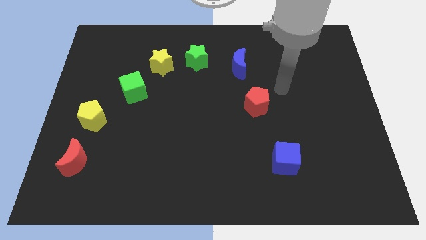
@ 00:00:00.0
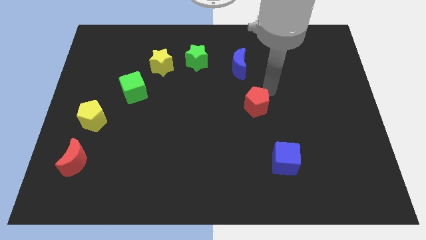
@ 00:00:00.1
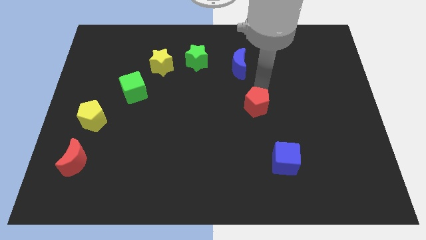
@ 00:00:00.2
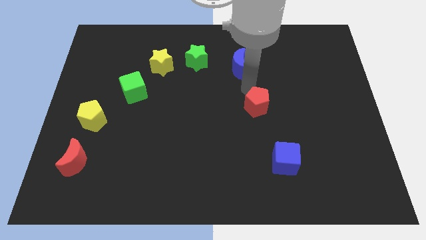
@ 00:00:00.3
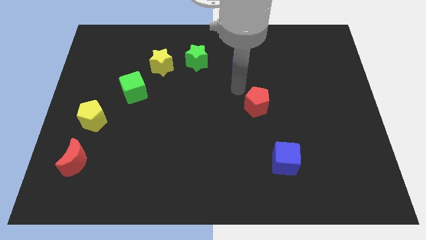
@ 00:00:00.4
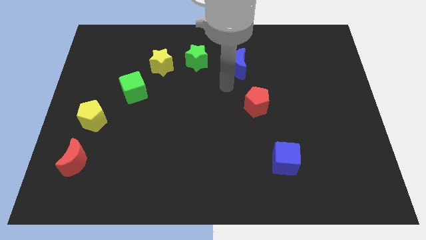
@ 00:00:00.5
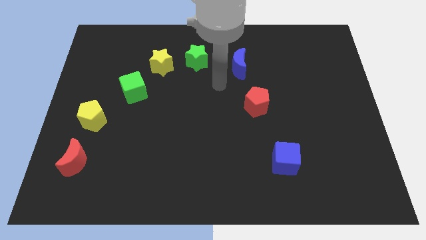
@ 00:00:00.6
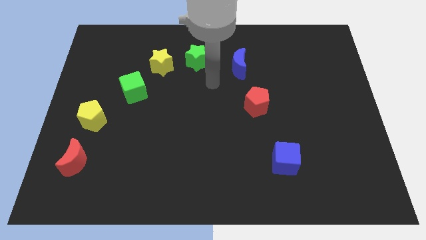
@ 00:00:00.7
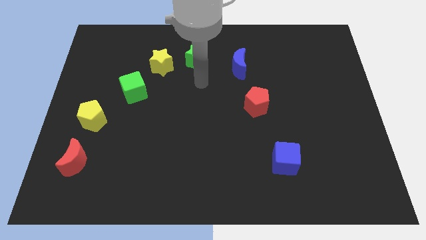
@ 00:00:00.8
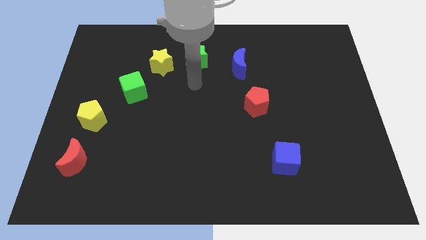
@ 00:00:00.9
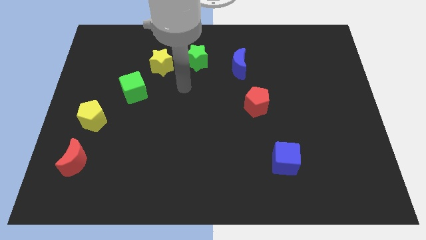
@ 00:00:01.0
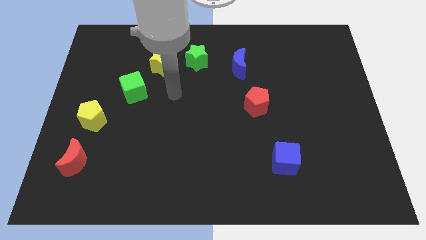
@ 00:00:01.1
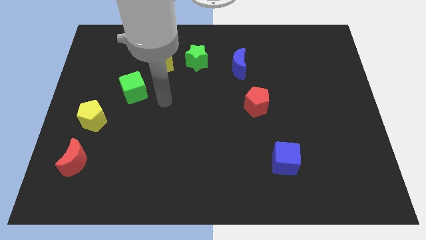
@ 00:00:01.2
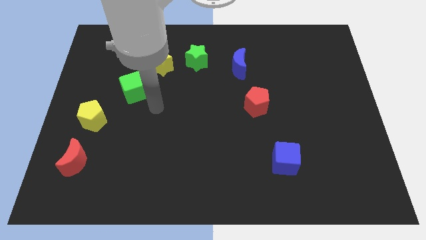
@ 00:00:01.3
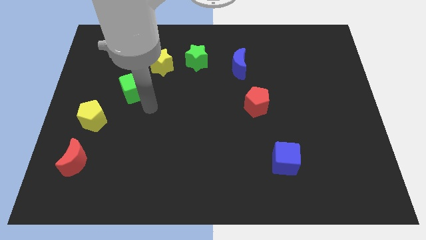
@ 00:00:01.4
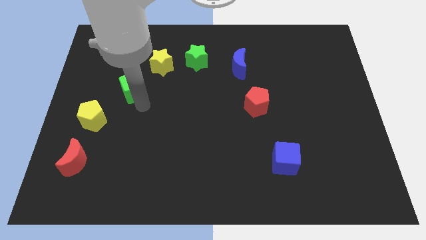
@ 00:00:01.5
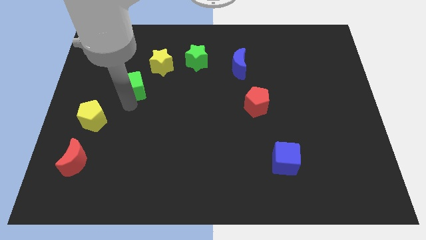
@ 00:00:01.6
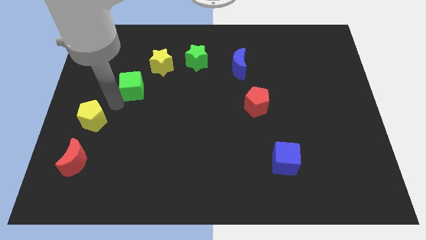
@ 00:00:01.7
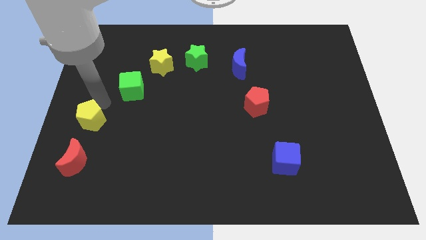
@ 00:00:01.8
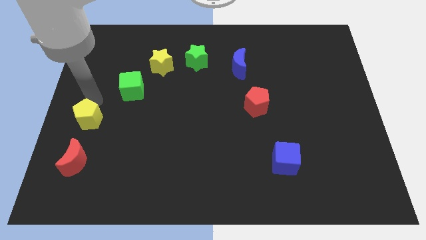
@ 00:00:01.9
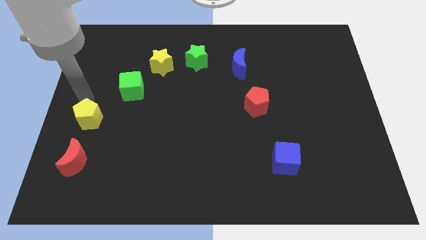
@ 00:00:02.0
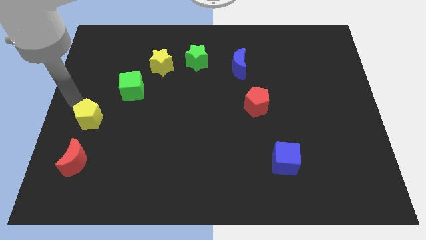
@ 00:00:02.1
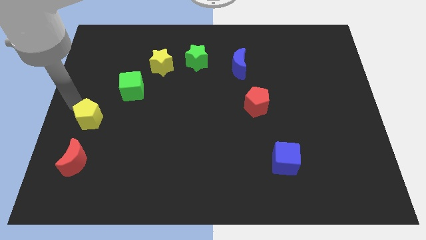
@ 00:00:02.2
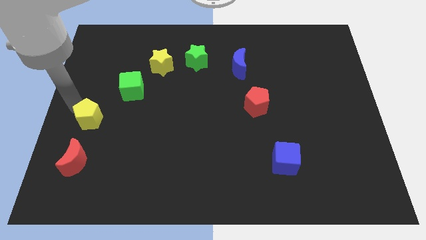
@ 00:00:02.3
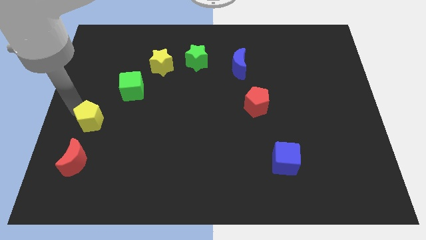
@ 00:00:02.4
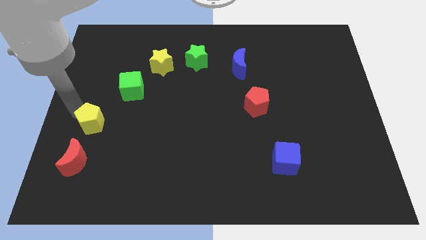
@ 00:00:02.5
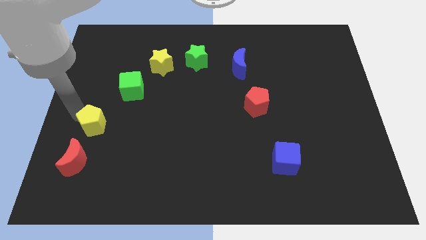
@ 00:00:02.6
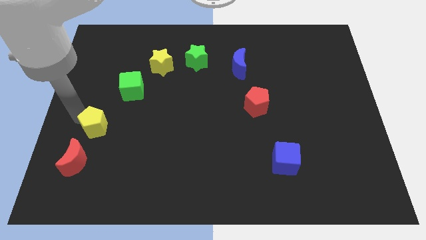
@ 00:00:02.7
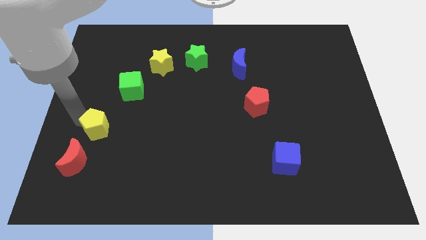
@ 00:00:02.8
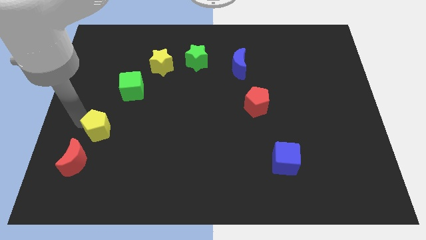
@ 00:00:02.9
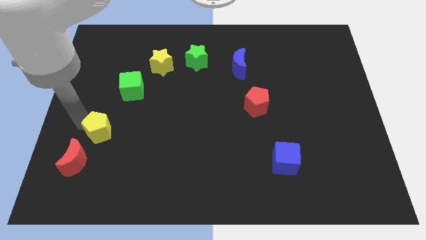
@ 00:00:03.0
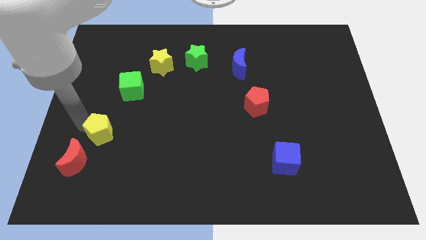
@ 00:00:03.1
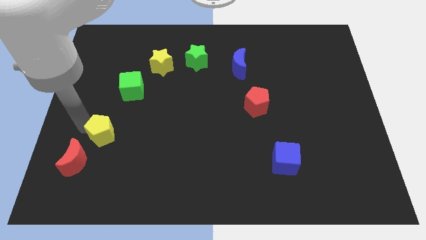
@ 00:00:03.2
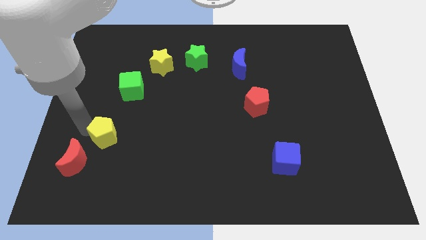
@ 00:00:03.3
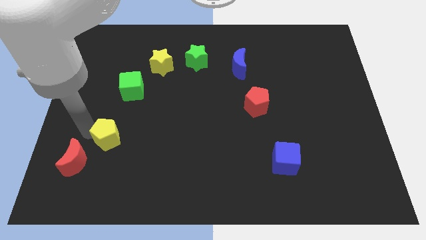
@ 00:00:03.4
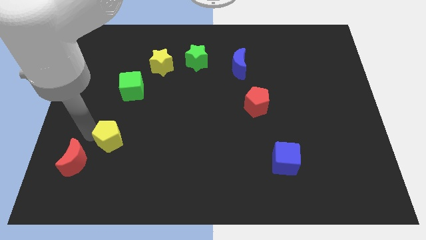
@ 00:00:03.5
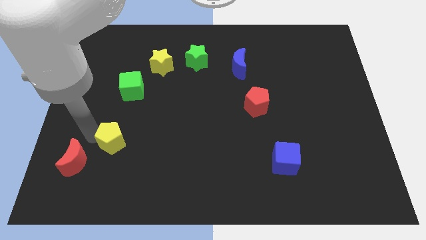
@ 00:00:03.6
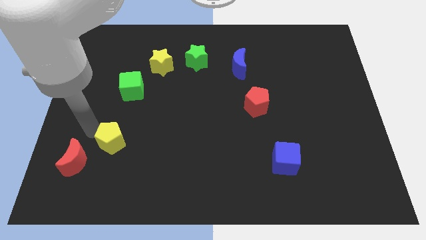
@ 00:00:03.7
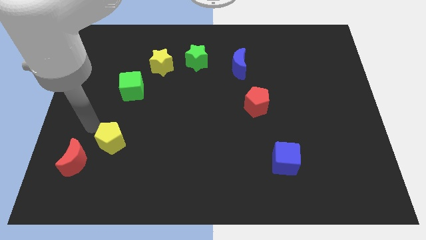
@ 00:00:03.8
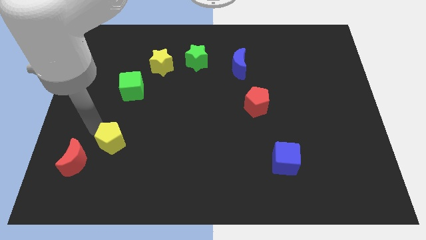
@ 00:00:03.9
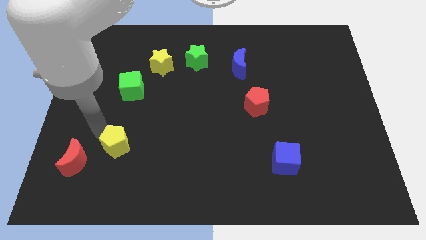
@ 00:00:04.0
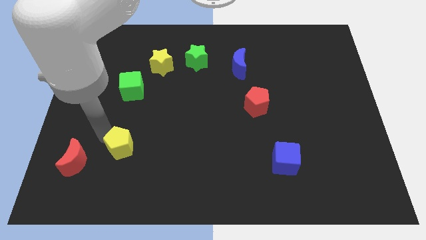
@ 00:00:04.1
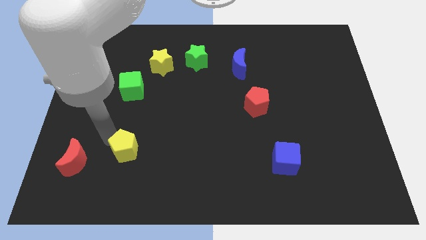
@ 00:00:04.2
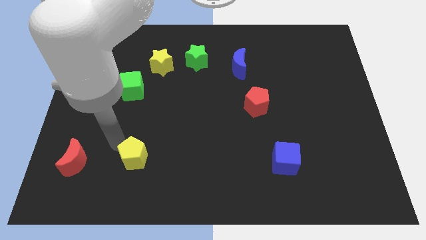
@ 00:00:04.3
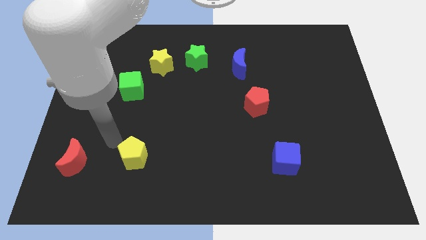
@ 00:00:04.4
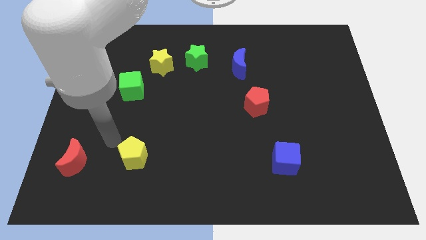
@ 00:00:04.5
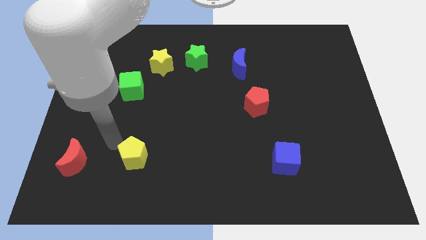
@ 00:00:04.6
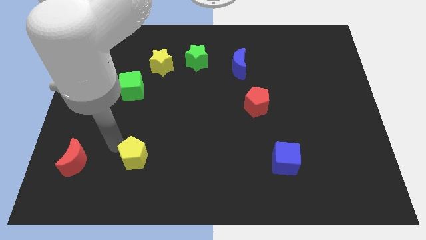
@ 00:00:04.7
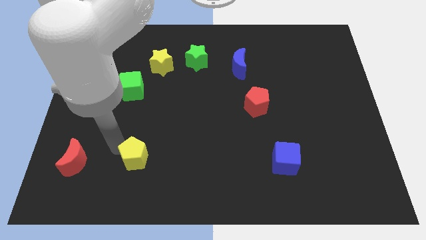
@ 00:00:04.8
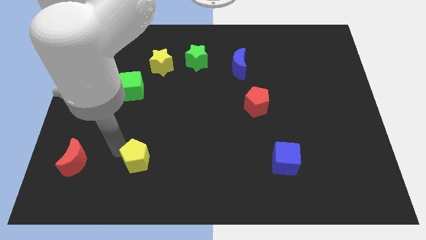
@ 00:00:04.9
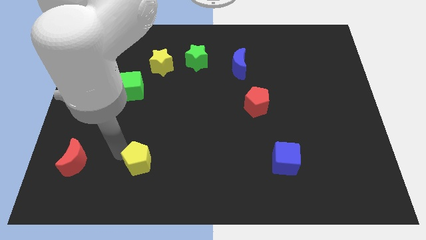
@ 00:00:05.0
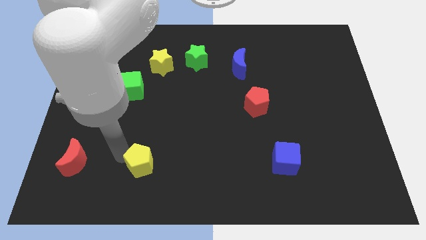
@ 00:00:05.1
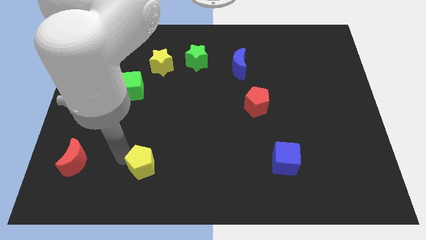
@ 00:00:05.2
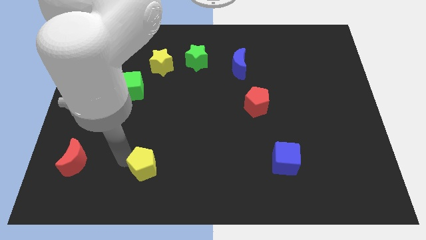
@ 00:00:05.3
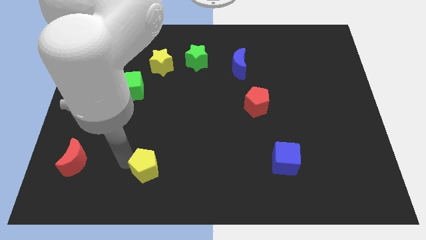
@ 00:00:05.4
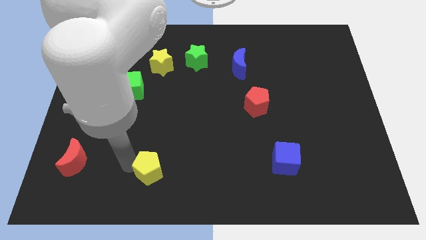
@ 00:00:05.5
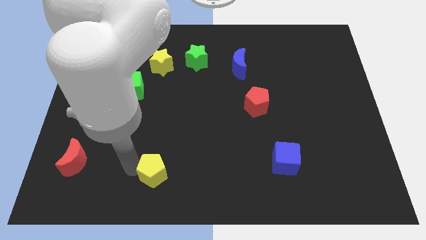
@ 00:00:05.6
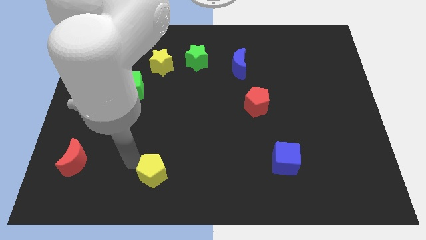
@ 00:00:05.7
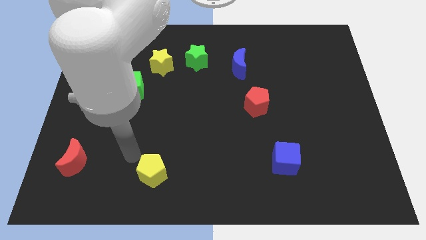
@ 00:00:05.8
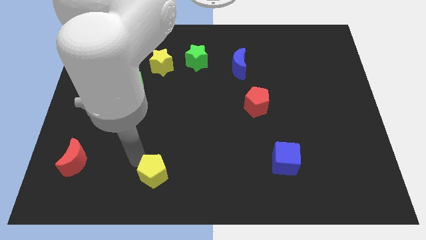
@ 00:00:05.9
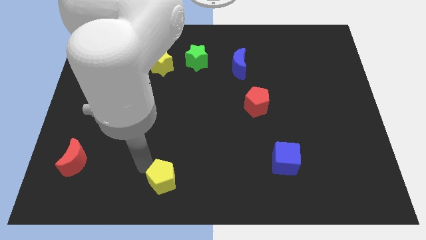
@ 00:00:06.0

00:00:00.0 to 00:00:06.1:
put the yellow pentagon to the bottom side
